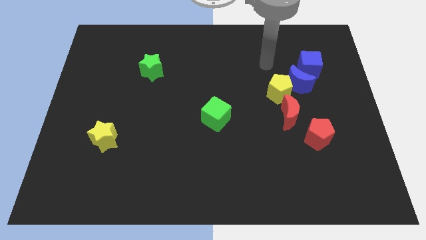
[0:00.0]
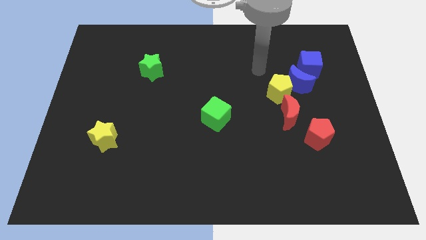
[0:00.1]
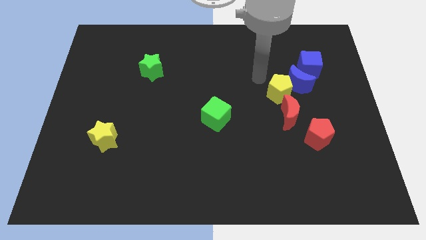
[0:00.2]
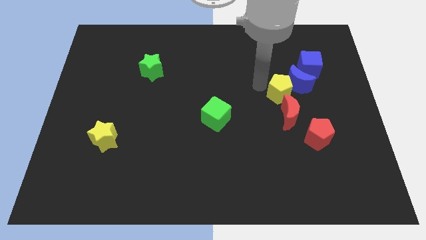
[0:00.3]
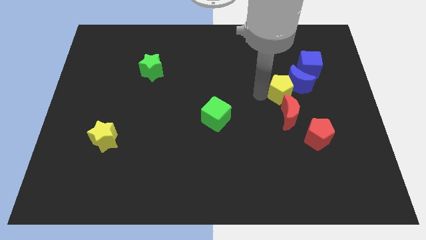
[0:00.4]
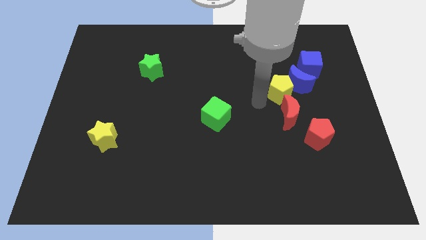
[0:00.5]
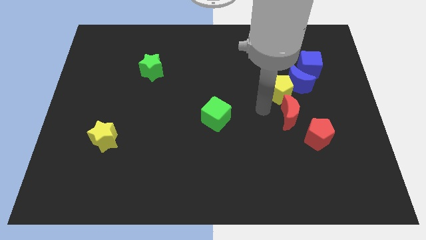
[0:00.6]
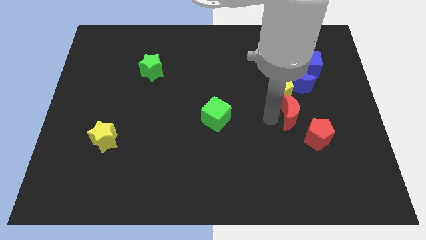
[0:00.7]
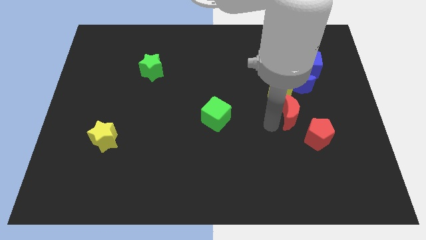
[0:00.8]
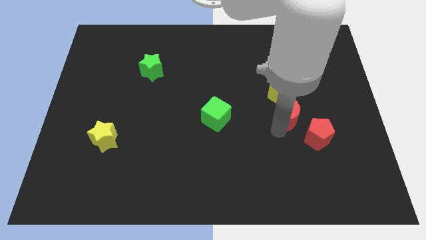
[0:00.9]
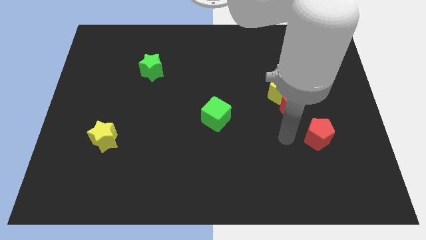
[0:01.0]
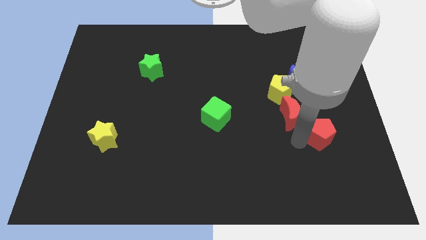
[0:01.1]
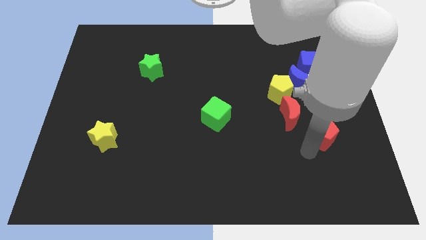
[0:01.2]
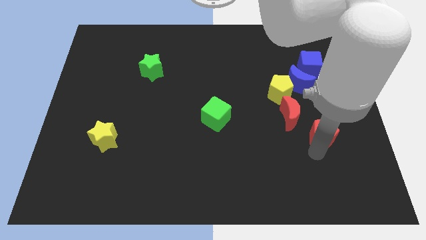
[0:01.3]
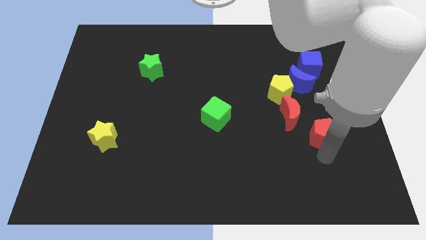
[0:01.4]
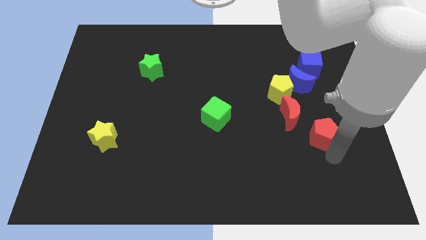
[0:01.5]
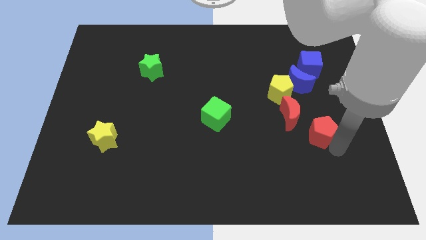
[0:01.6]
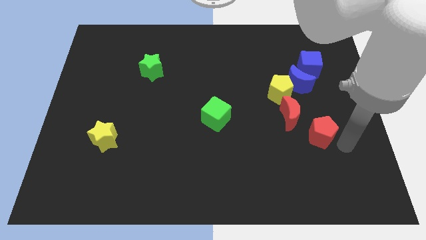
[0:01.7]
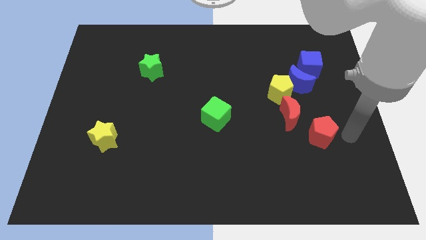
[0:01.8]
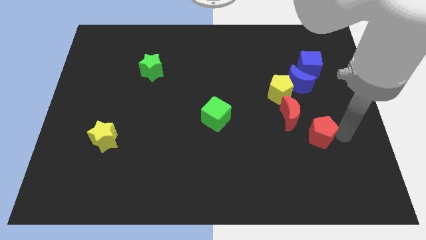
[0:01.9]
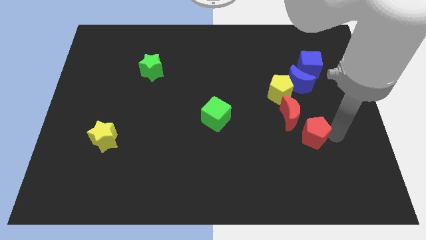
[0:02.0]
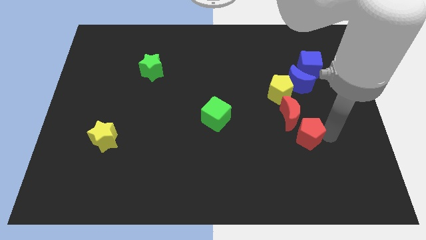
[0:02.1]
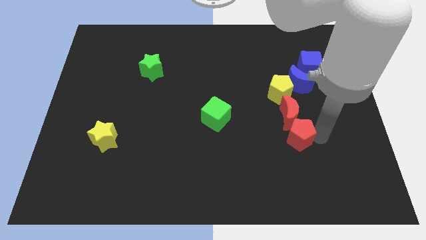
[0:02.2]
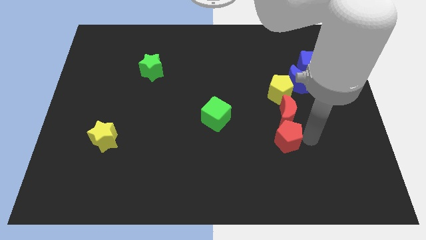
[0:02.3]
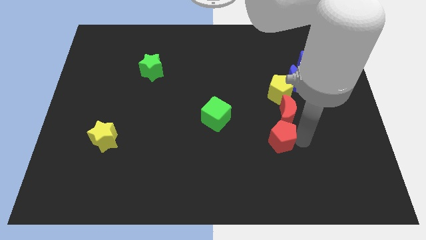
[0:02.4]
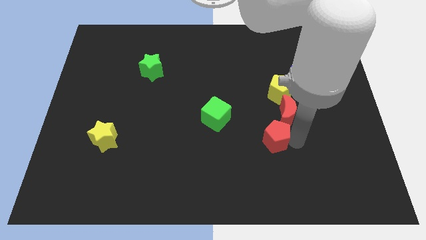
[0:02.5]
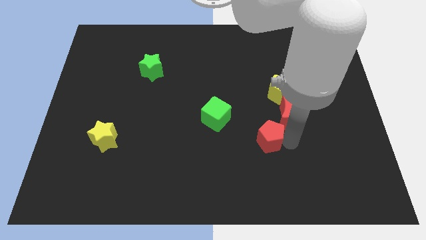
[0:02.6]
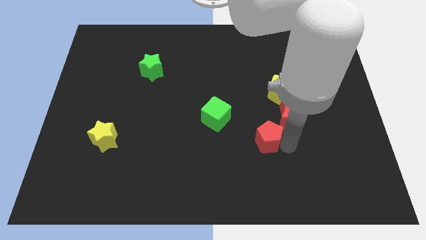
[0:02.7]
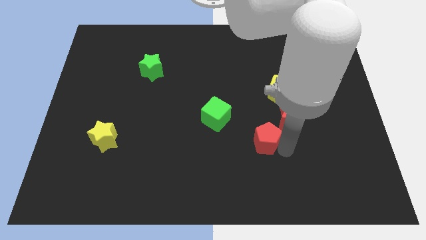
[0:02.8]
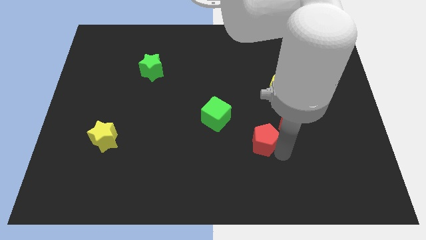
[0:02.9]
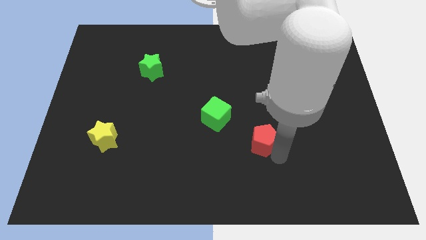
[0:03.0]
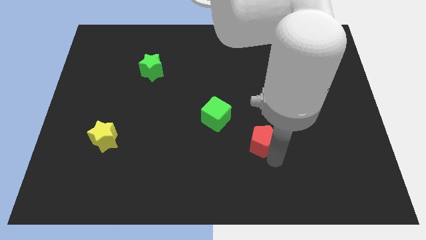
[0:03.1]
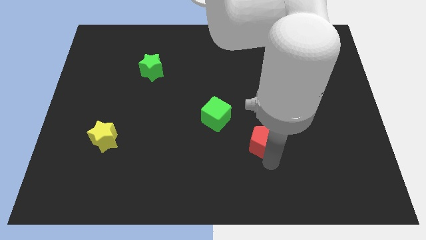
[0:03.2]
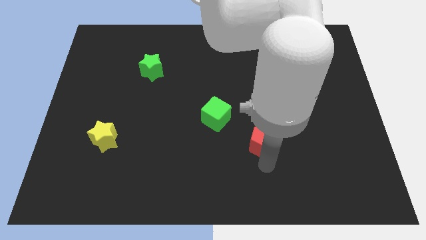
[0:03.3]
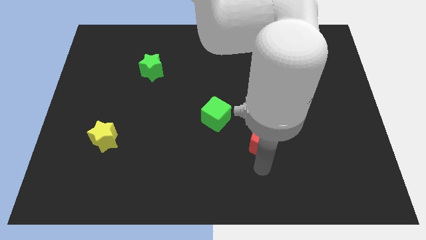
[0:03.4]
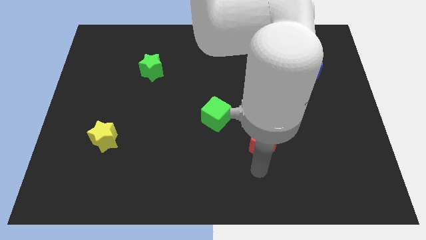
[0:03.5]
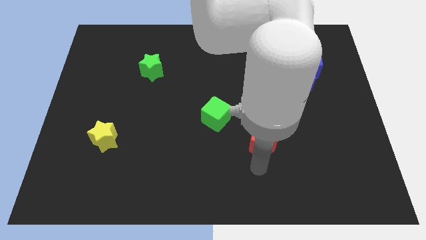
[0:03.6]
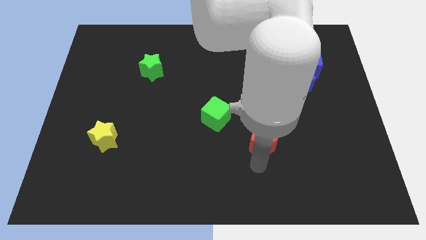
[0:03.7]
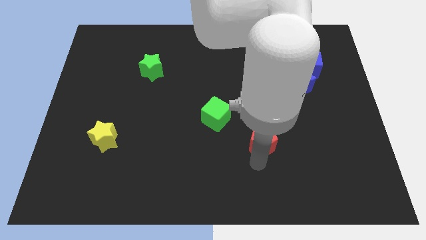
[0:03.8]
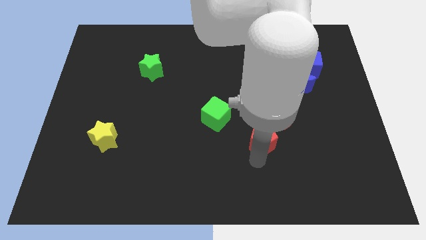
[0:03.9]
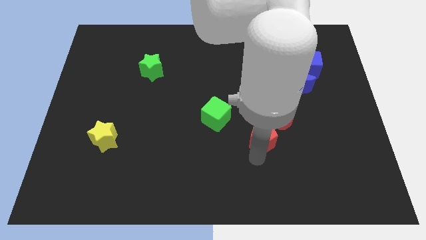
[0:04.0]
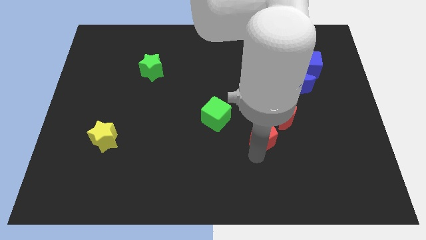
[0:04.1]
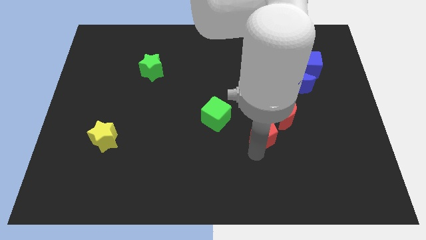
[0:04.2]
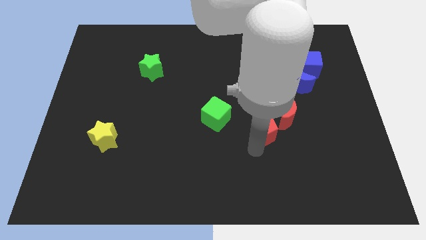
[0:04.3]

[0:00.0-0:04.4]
push the red pentagon diagonally up and left somewhat

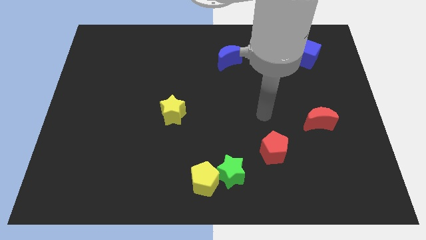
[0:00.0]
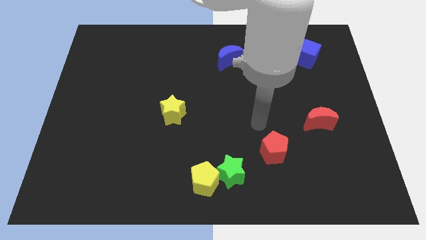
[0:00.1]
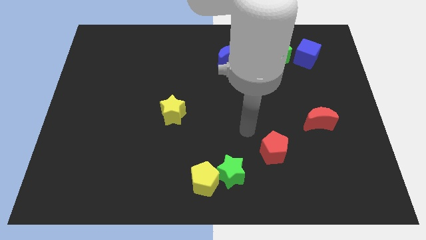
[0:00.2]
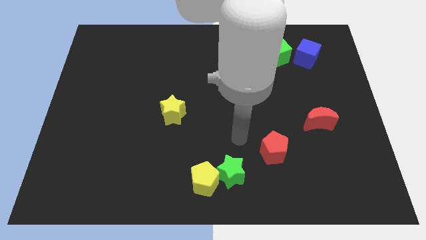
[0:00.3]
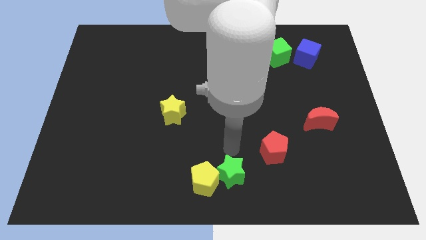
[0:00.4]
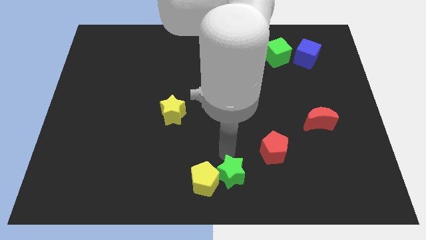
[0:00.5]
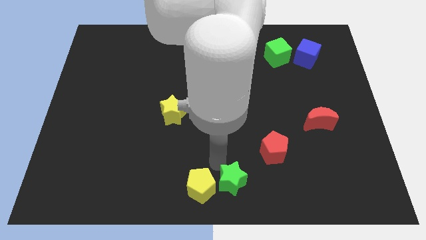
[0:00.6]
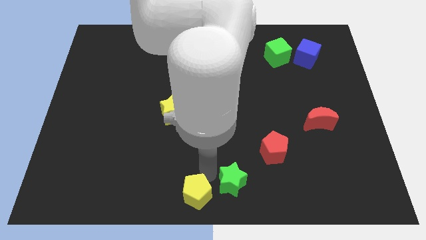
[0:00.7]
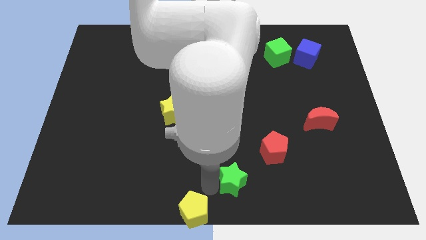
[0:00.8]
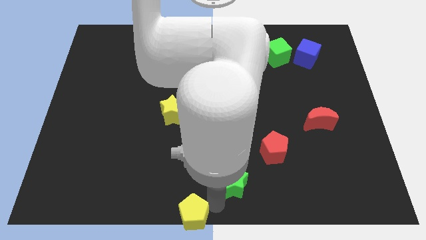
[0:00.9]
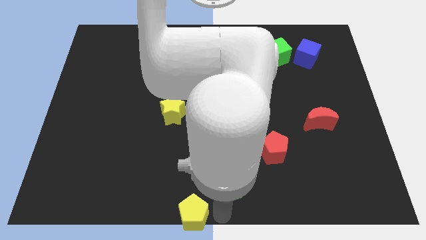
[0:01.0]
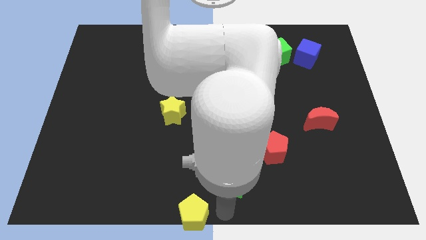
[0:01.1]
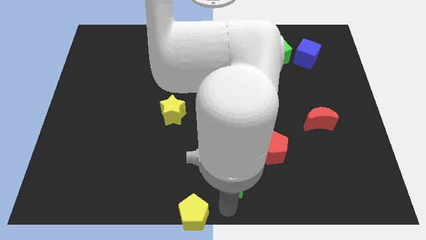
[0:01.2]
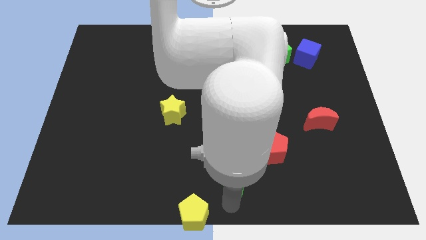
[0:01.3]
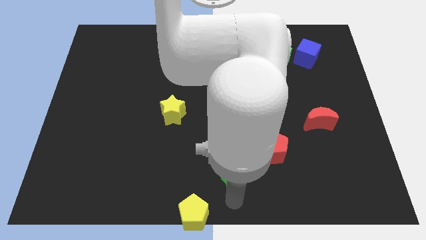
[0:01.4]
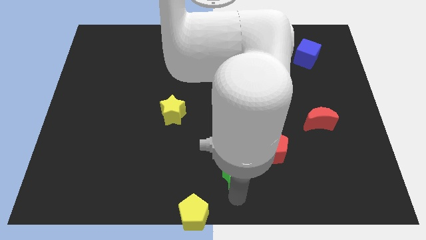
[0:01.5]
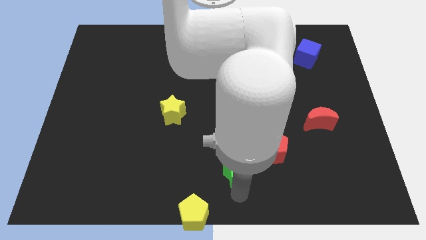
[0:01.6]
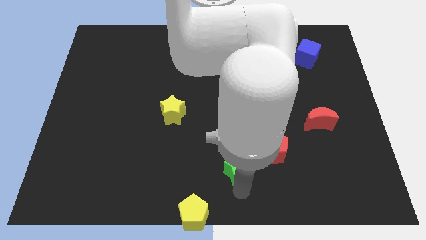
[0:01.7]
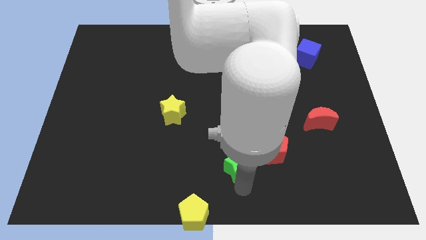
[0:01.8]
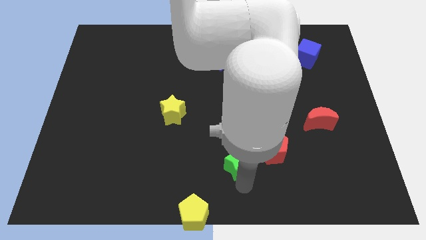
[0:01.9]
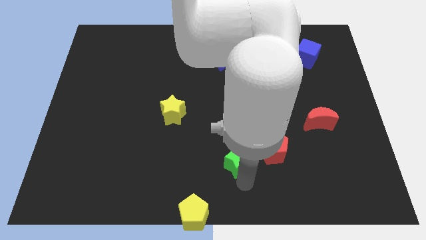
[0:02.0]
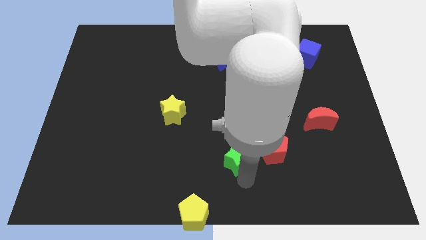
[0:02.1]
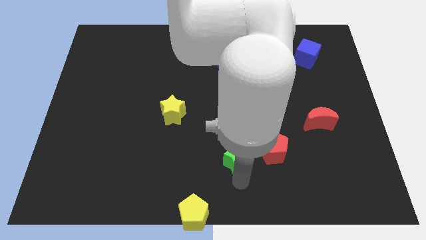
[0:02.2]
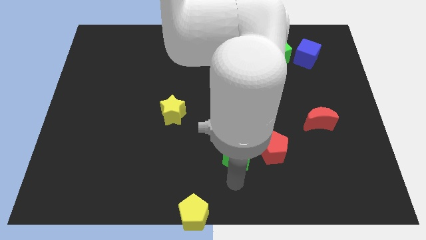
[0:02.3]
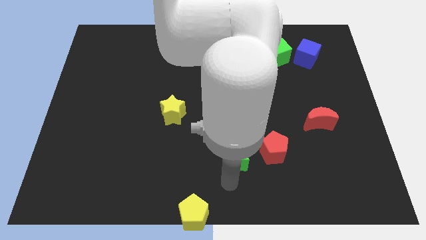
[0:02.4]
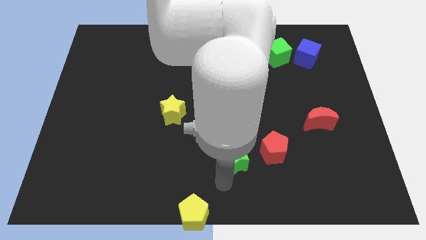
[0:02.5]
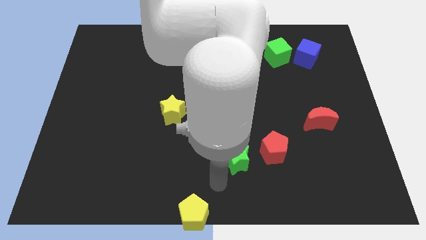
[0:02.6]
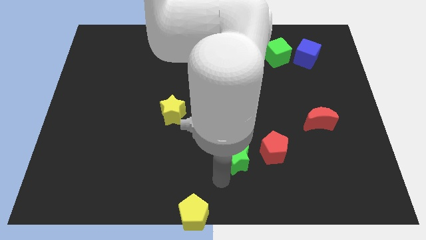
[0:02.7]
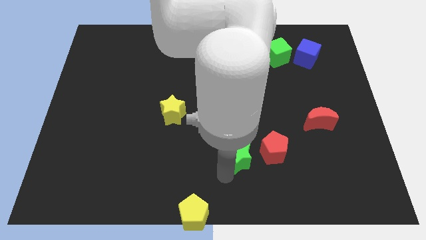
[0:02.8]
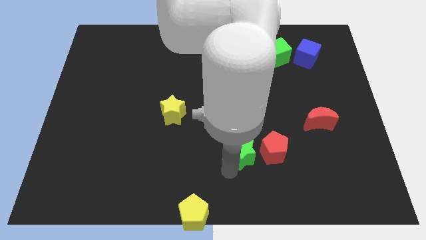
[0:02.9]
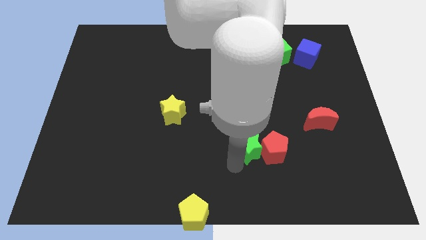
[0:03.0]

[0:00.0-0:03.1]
slightly move the green star up and to the right diagonally

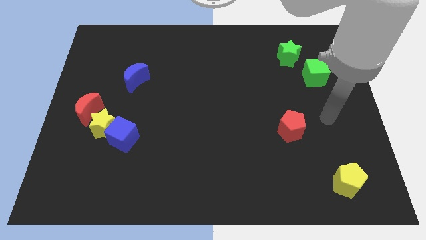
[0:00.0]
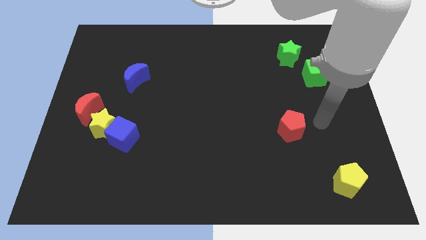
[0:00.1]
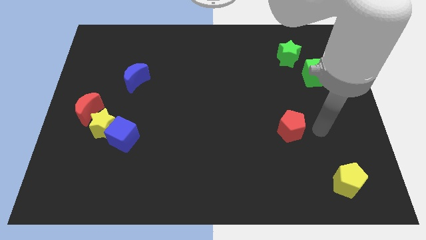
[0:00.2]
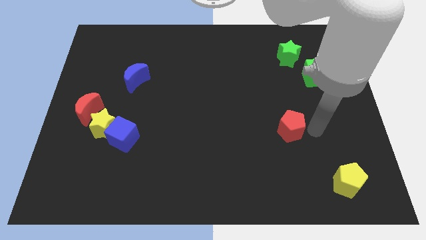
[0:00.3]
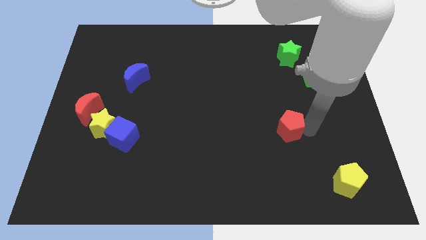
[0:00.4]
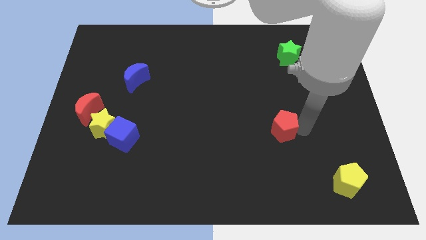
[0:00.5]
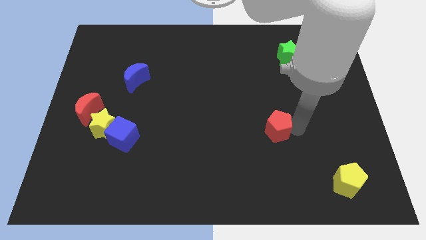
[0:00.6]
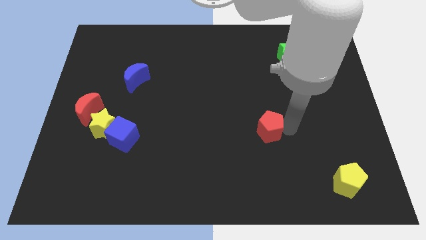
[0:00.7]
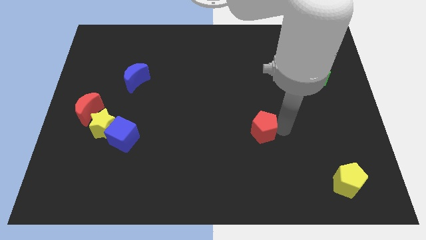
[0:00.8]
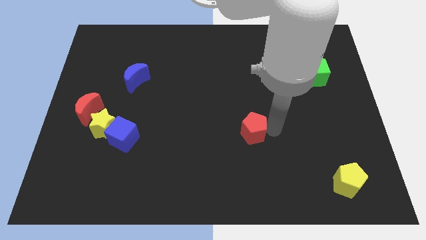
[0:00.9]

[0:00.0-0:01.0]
push the red pentagon a little to the left
